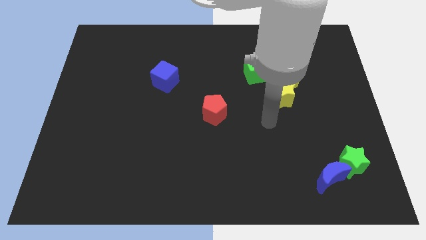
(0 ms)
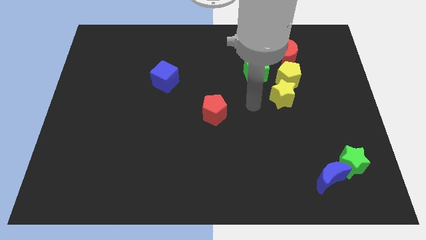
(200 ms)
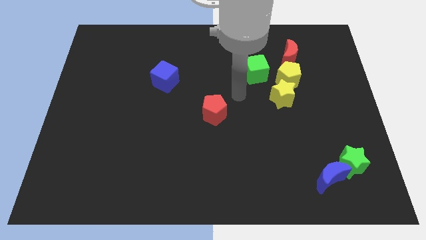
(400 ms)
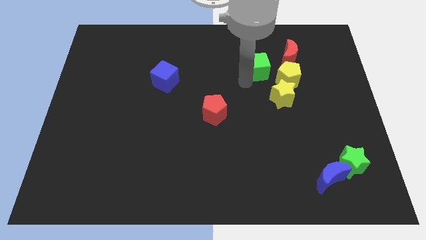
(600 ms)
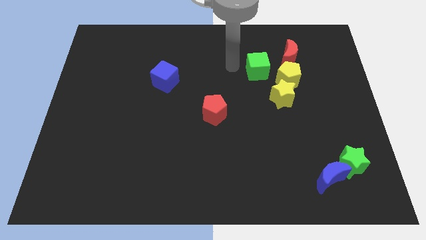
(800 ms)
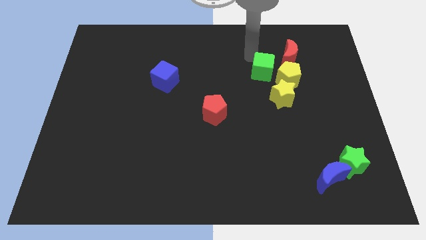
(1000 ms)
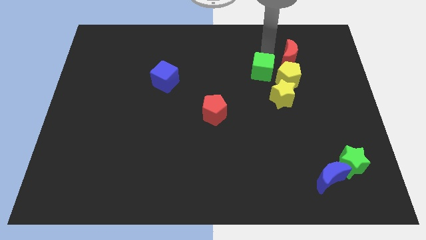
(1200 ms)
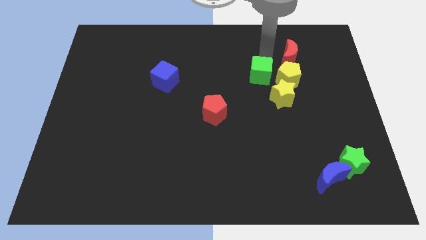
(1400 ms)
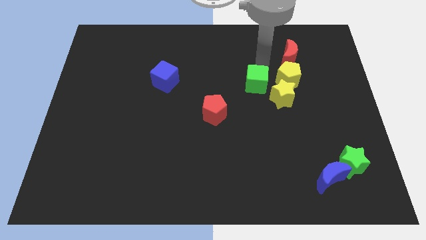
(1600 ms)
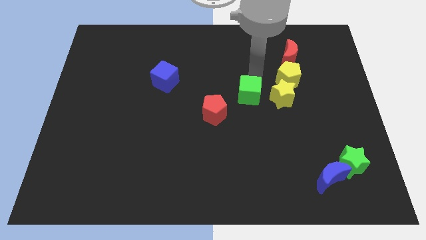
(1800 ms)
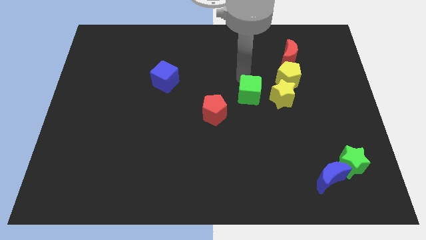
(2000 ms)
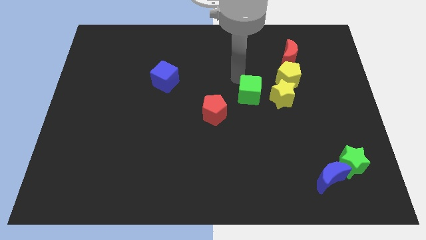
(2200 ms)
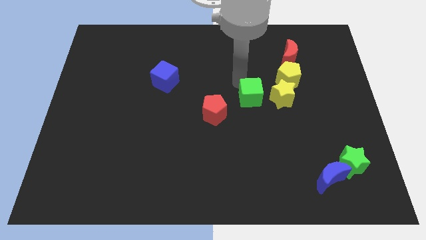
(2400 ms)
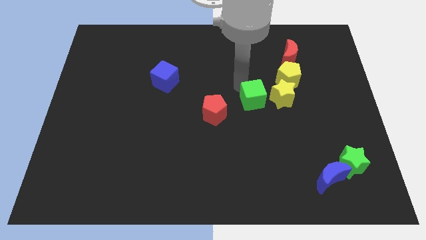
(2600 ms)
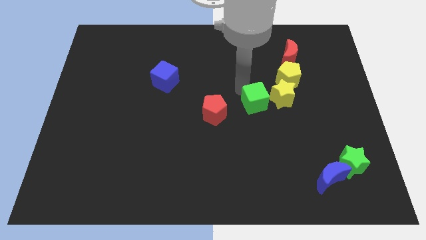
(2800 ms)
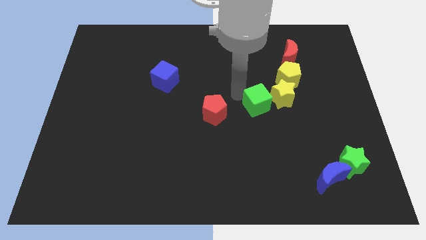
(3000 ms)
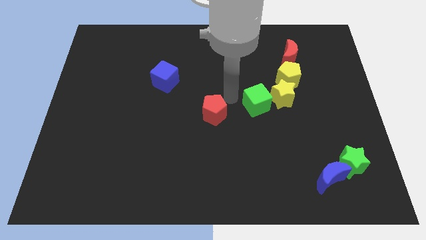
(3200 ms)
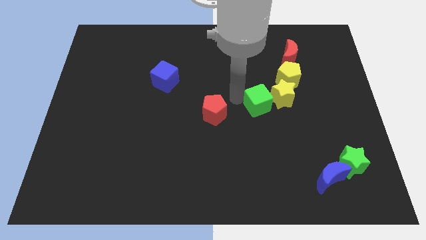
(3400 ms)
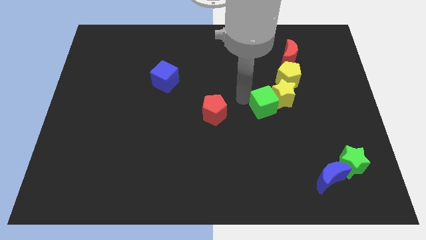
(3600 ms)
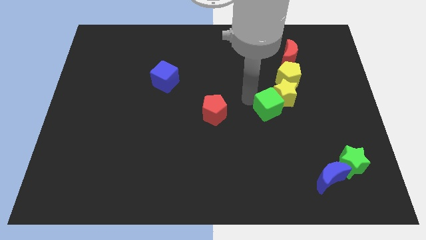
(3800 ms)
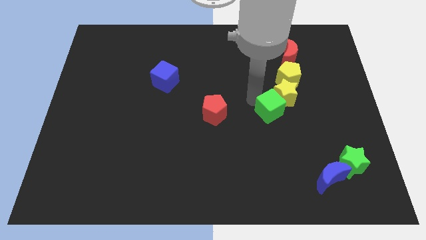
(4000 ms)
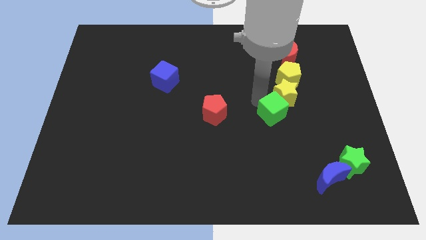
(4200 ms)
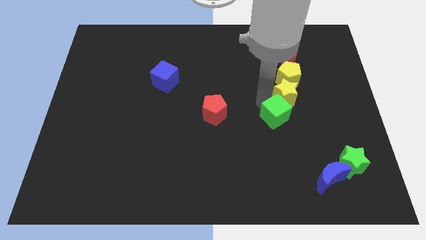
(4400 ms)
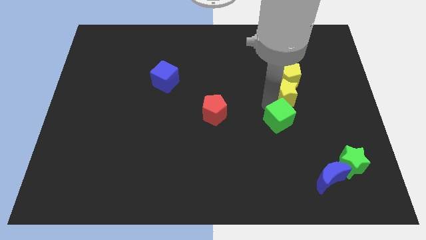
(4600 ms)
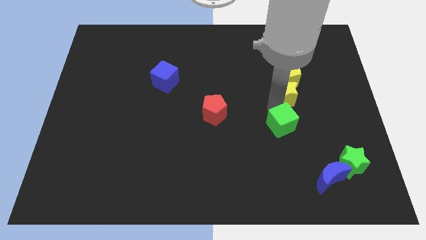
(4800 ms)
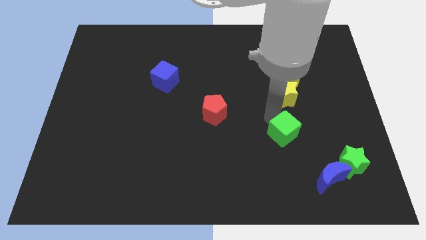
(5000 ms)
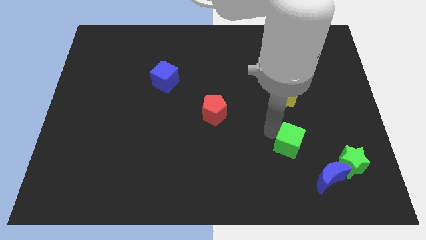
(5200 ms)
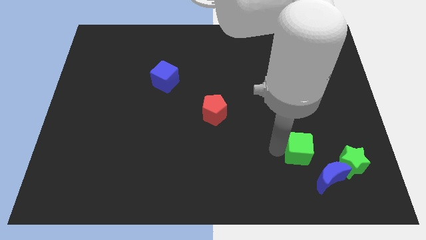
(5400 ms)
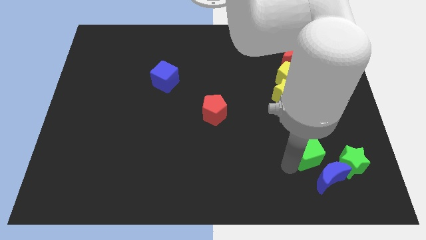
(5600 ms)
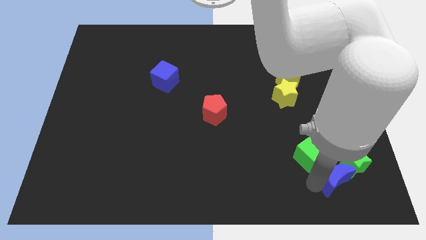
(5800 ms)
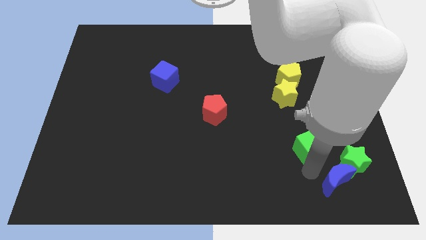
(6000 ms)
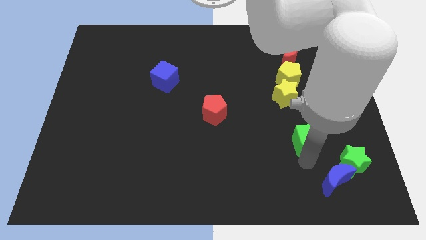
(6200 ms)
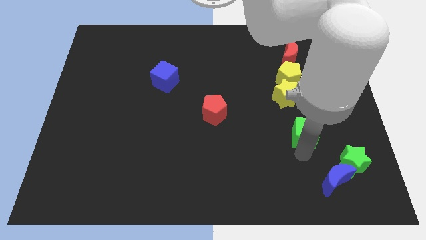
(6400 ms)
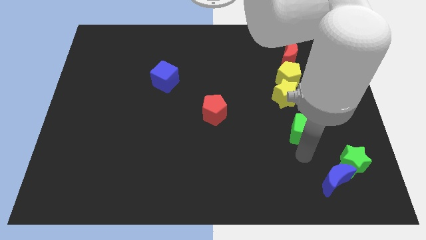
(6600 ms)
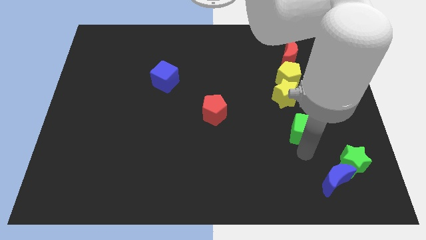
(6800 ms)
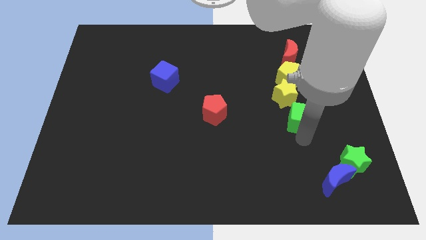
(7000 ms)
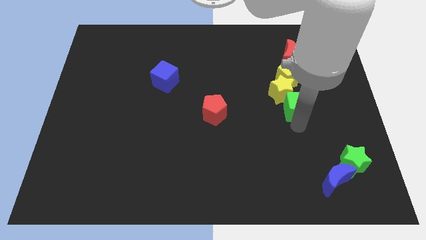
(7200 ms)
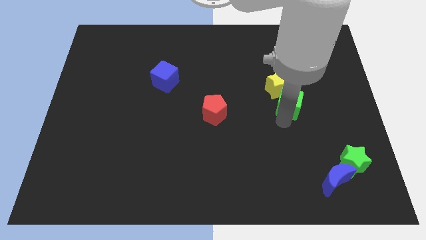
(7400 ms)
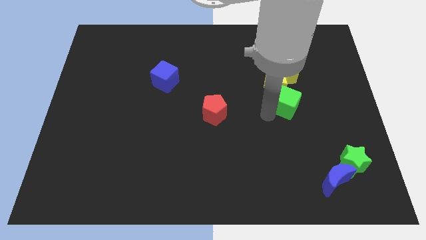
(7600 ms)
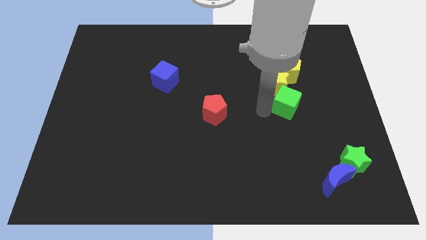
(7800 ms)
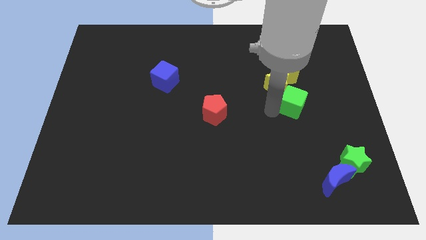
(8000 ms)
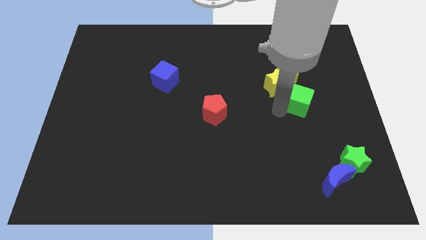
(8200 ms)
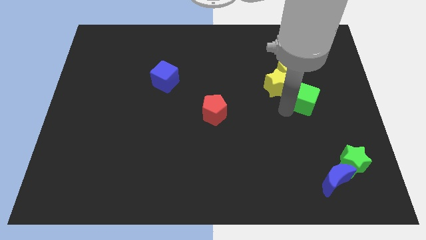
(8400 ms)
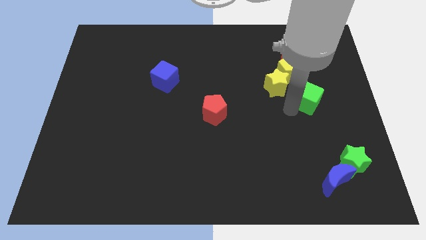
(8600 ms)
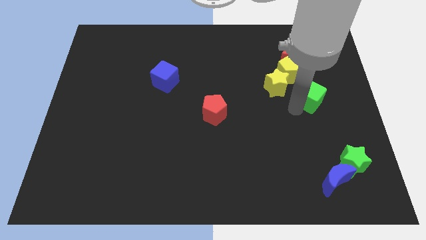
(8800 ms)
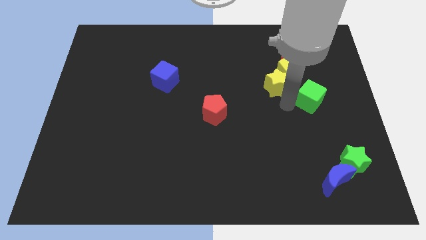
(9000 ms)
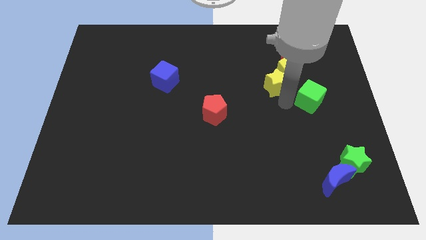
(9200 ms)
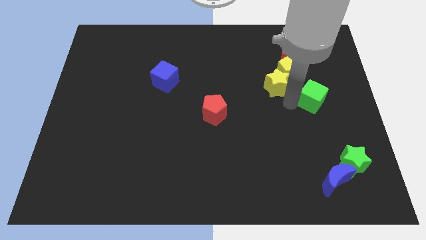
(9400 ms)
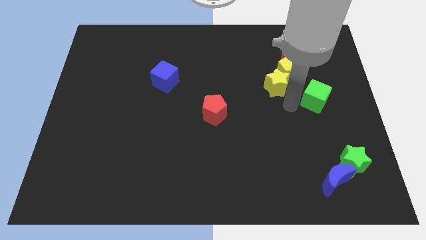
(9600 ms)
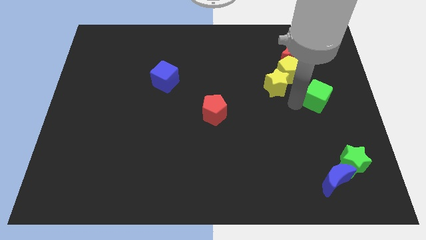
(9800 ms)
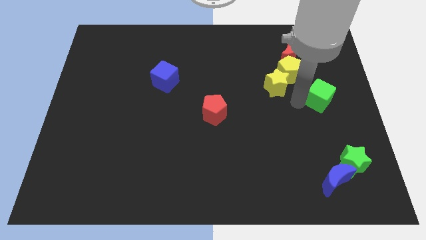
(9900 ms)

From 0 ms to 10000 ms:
put the green cube to the right side of the board

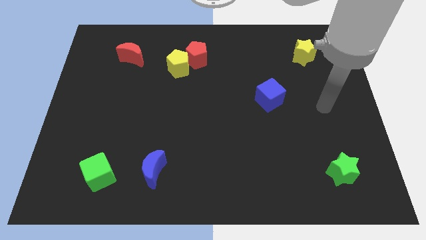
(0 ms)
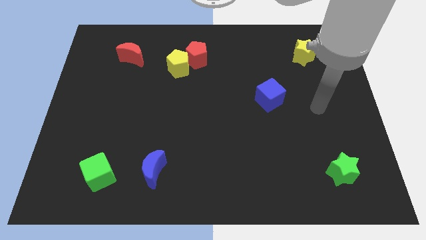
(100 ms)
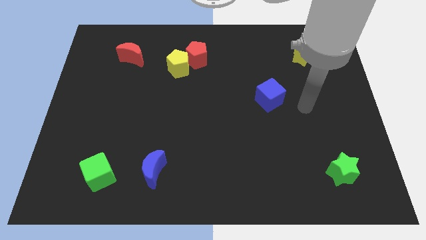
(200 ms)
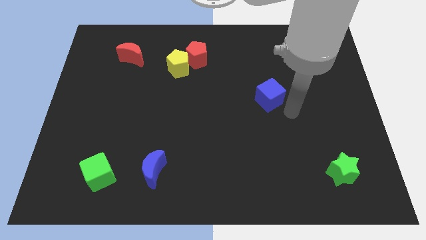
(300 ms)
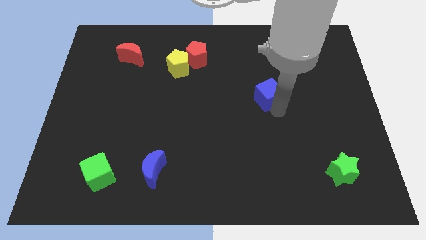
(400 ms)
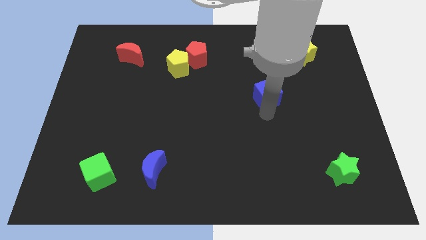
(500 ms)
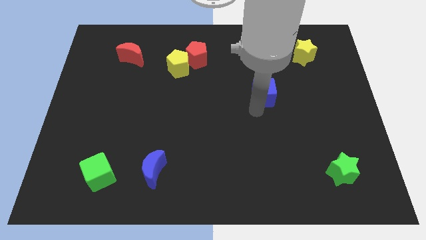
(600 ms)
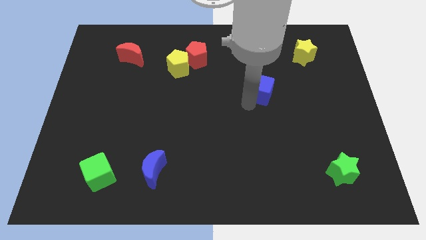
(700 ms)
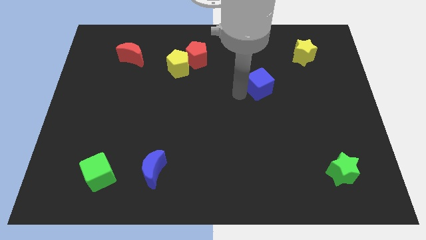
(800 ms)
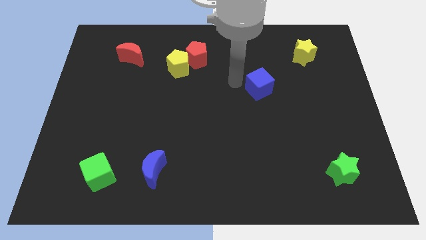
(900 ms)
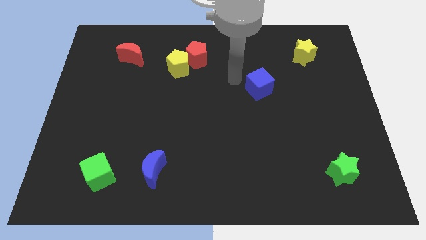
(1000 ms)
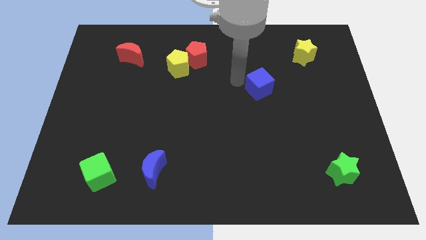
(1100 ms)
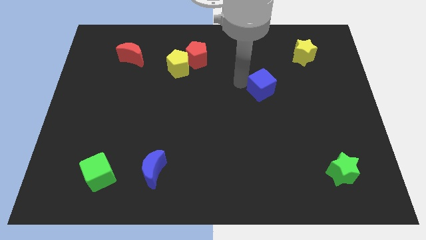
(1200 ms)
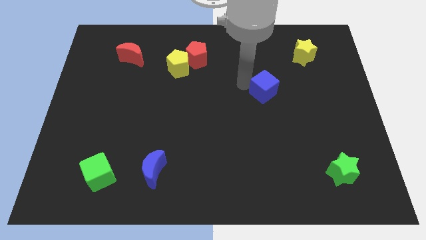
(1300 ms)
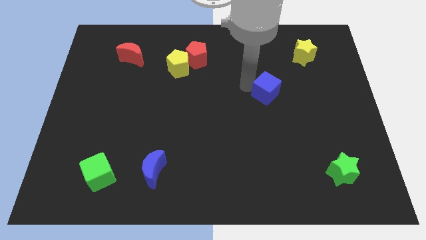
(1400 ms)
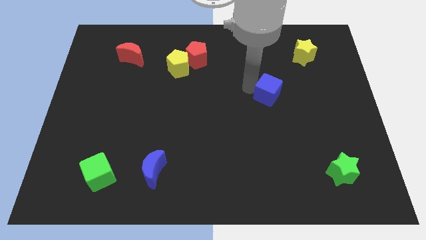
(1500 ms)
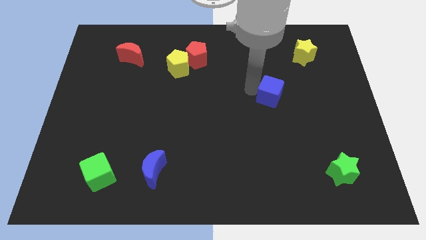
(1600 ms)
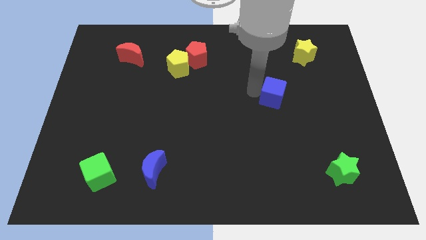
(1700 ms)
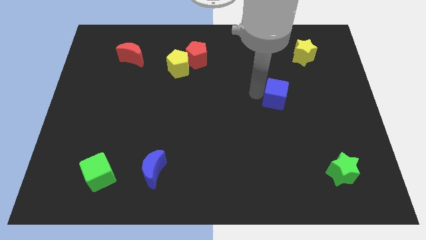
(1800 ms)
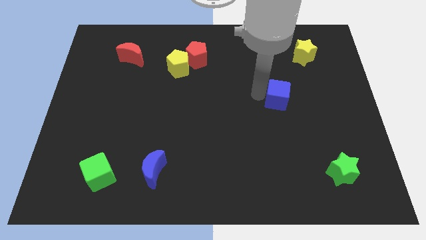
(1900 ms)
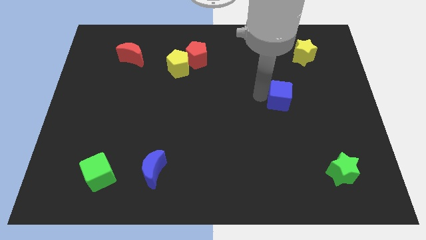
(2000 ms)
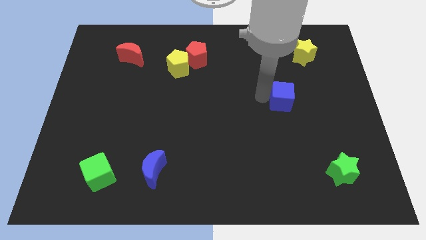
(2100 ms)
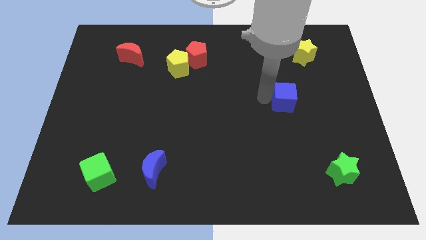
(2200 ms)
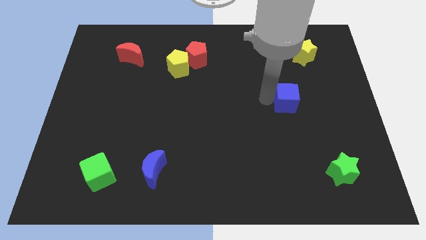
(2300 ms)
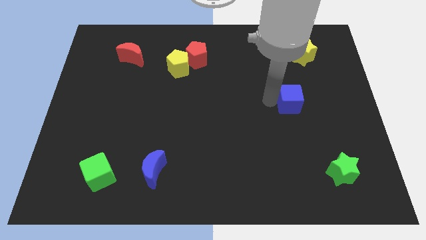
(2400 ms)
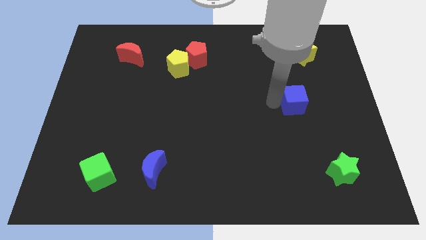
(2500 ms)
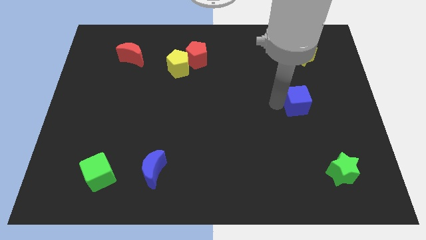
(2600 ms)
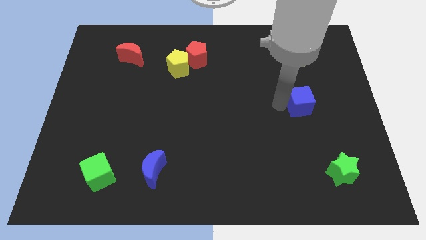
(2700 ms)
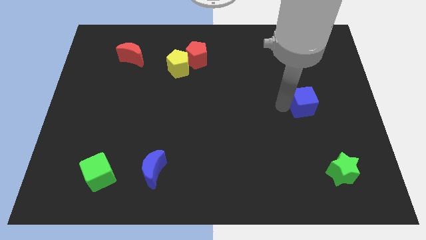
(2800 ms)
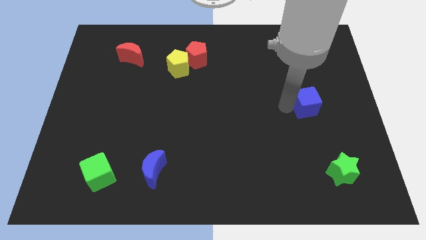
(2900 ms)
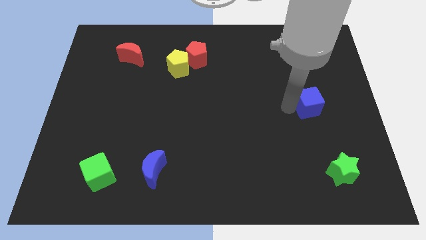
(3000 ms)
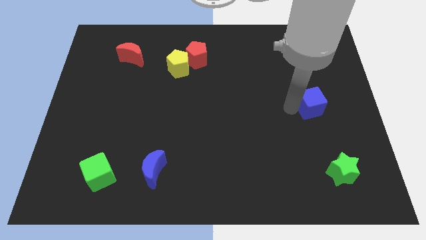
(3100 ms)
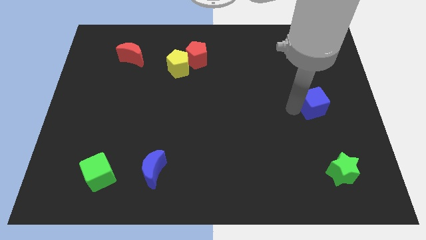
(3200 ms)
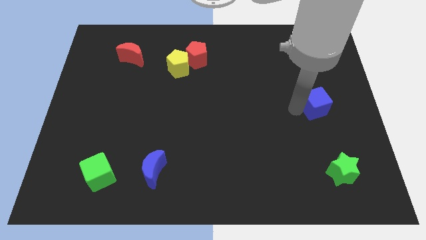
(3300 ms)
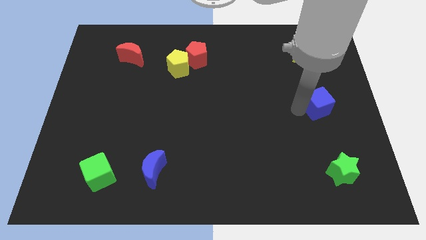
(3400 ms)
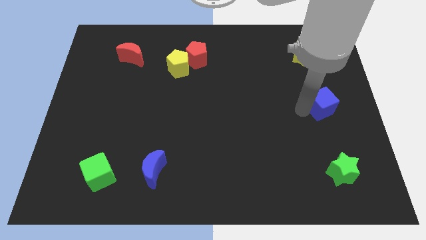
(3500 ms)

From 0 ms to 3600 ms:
slide the blue cube to the center right
